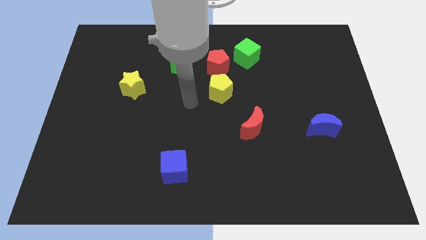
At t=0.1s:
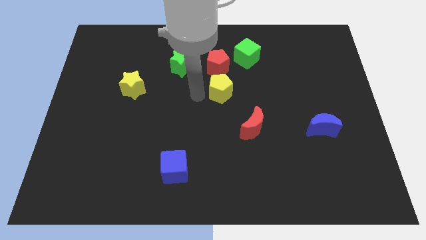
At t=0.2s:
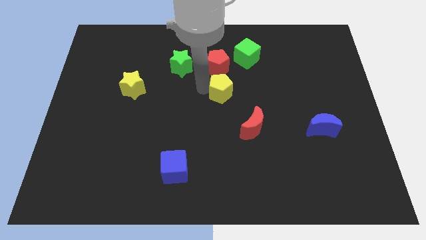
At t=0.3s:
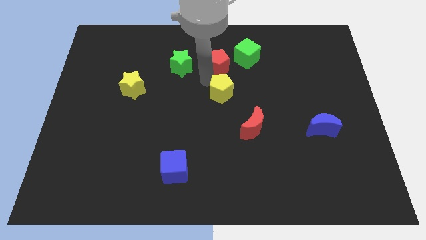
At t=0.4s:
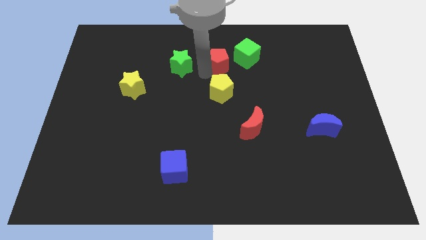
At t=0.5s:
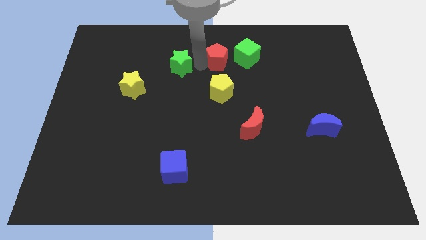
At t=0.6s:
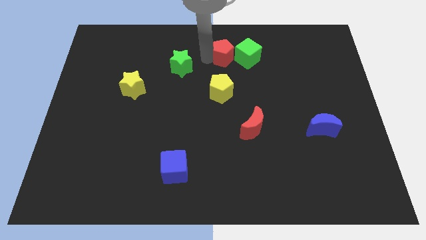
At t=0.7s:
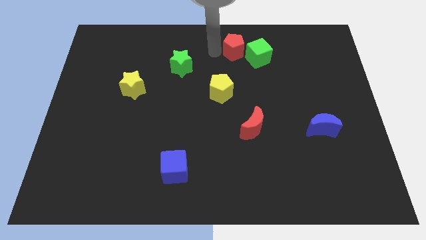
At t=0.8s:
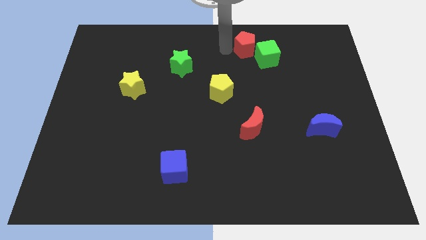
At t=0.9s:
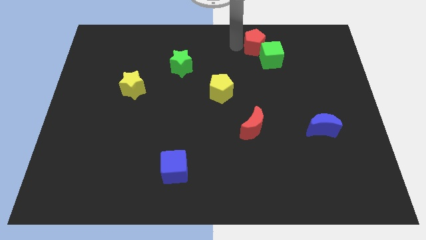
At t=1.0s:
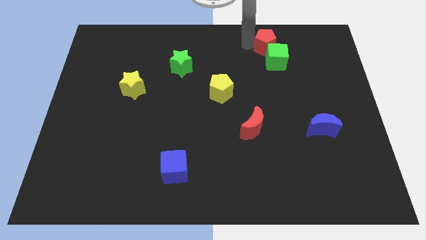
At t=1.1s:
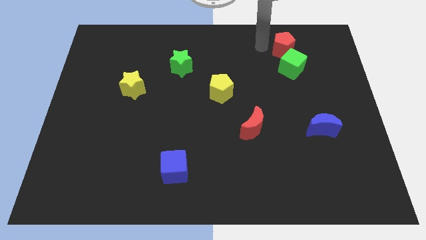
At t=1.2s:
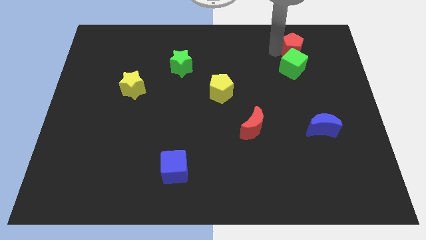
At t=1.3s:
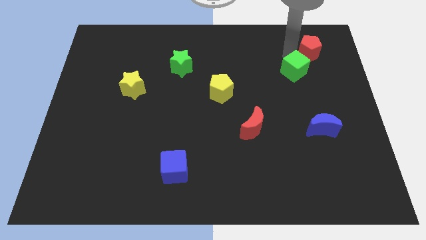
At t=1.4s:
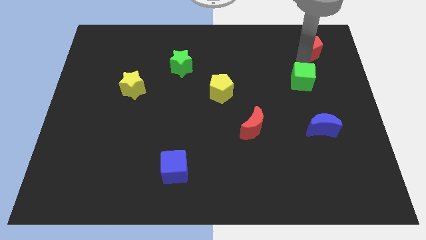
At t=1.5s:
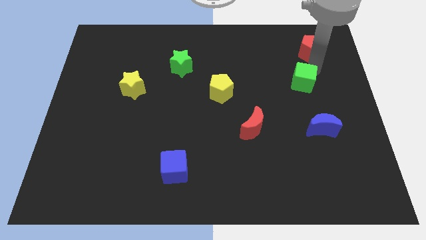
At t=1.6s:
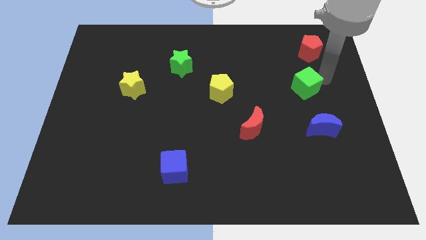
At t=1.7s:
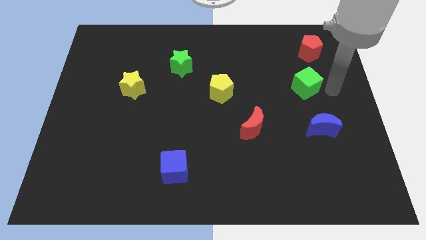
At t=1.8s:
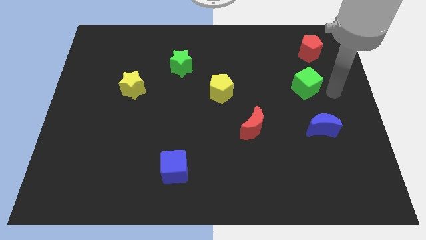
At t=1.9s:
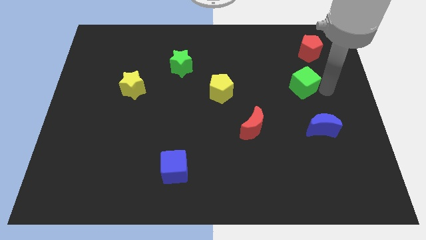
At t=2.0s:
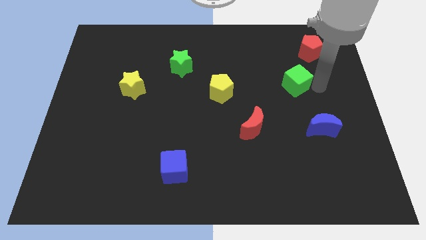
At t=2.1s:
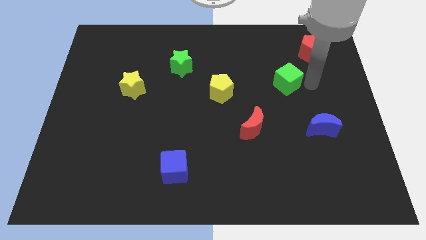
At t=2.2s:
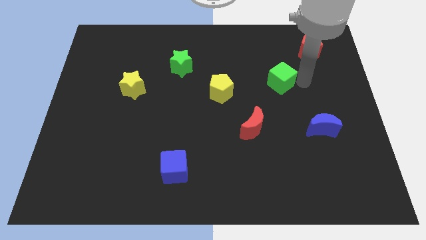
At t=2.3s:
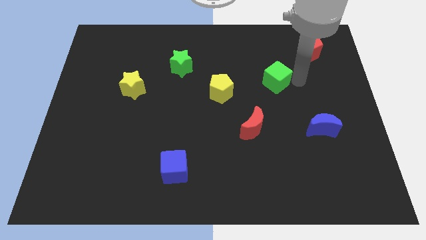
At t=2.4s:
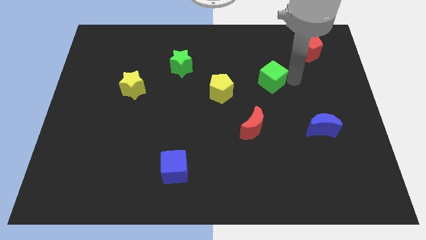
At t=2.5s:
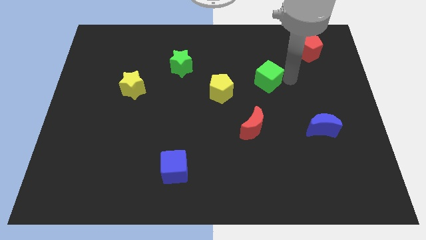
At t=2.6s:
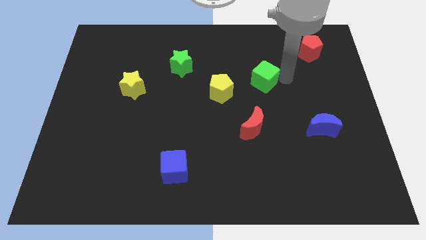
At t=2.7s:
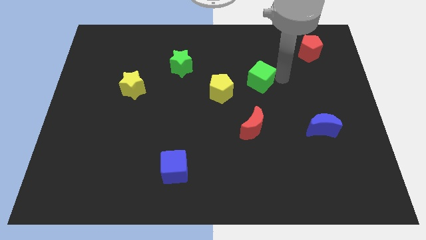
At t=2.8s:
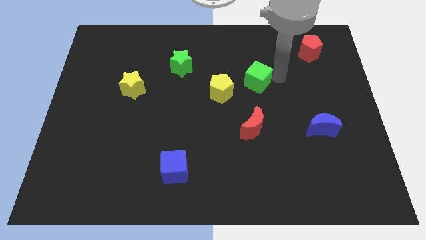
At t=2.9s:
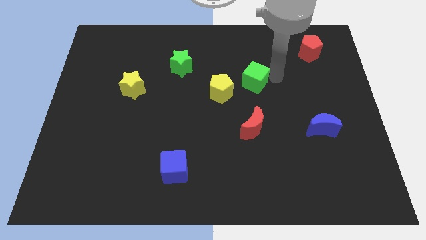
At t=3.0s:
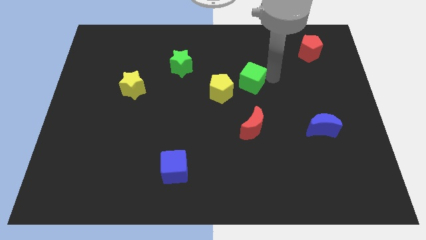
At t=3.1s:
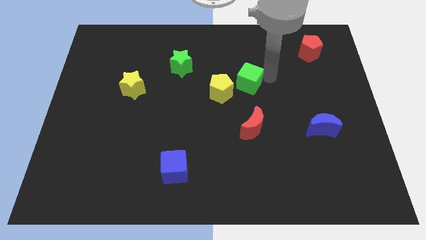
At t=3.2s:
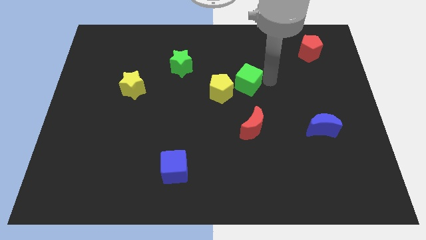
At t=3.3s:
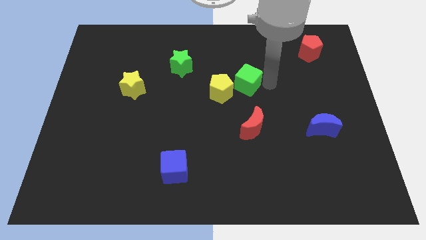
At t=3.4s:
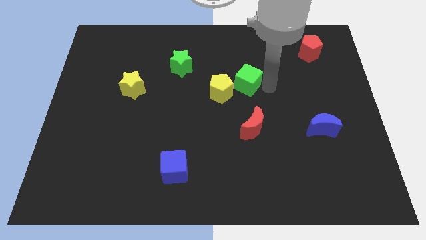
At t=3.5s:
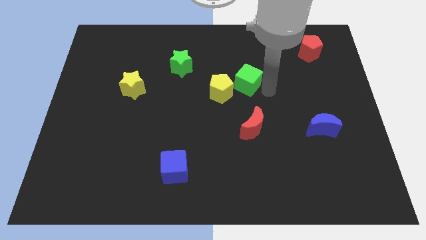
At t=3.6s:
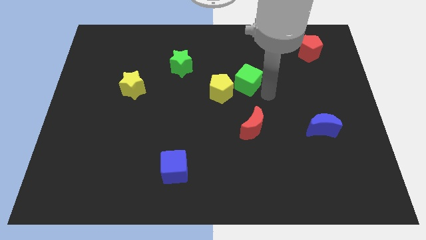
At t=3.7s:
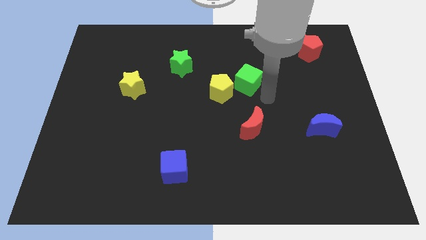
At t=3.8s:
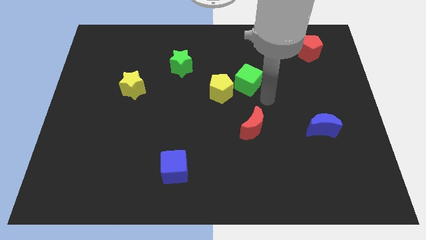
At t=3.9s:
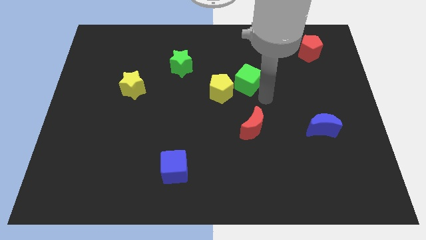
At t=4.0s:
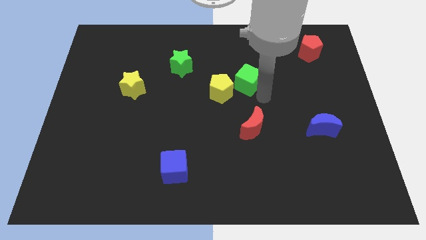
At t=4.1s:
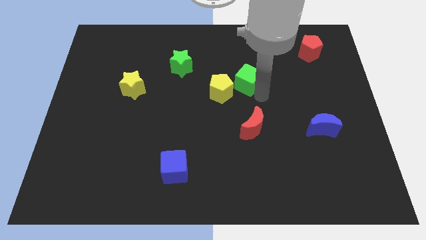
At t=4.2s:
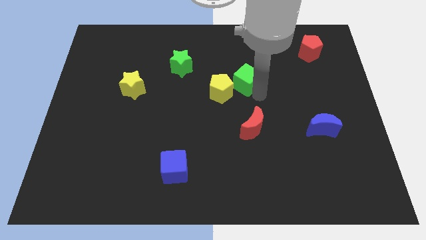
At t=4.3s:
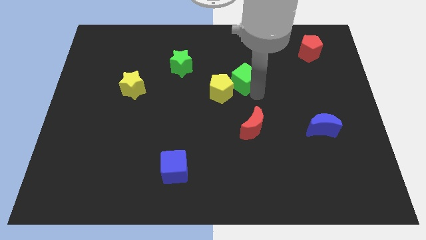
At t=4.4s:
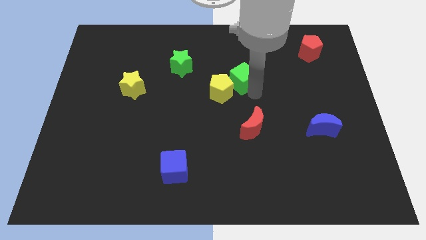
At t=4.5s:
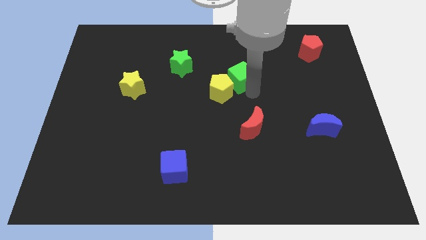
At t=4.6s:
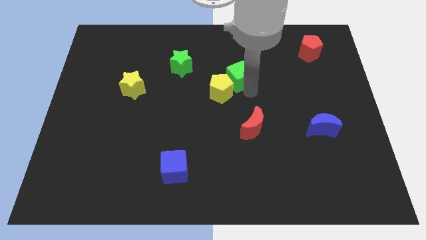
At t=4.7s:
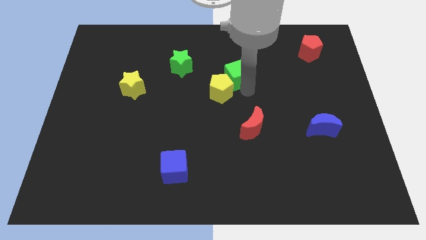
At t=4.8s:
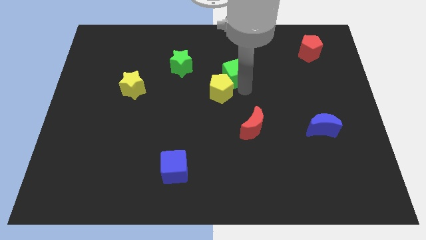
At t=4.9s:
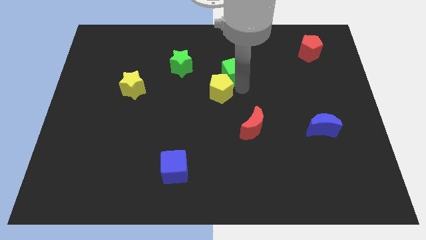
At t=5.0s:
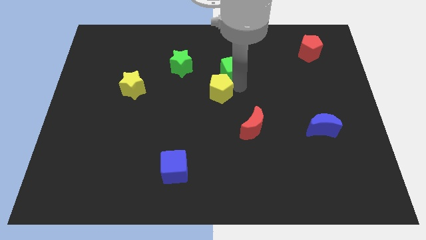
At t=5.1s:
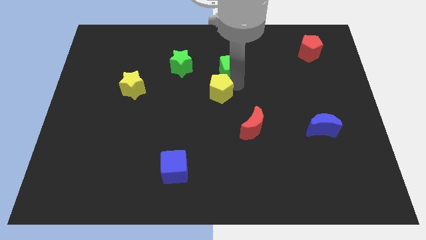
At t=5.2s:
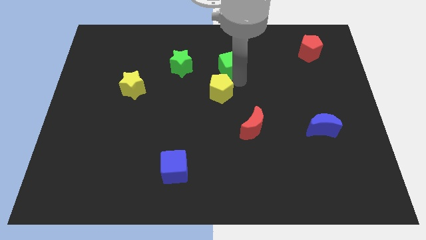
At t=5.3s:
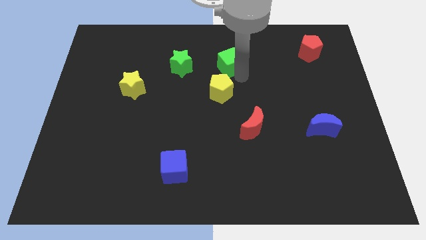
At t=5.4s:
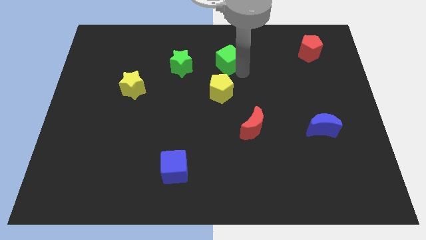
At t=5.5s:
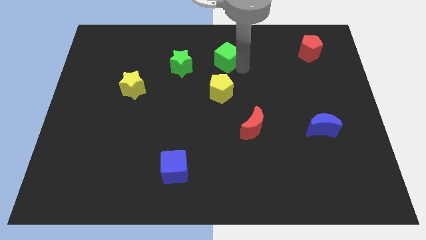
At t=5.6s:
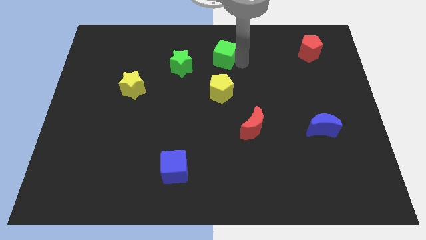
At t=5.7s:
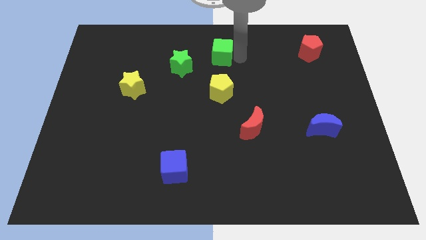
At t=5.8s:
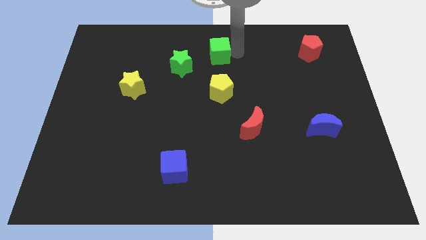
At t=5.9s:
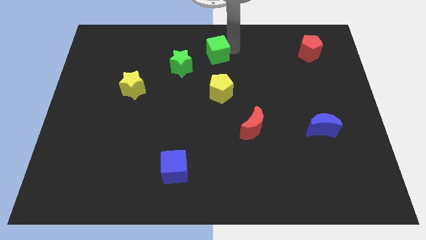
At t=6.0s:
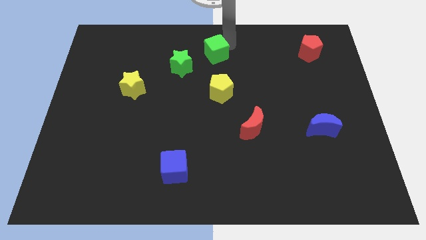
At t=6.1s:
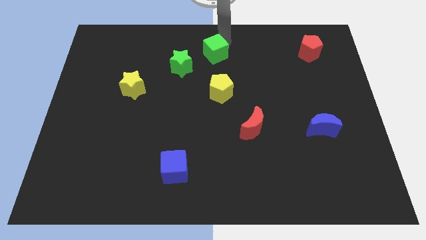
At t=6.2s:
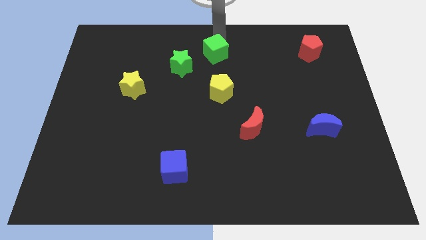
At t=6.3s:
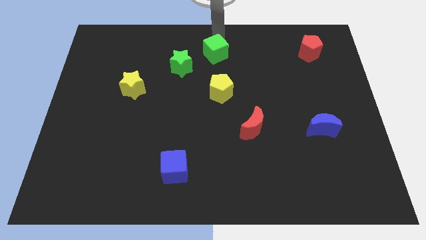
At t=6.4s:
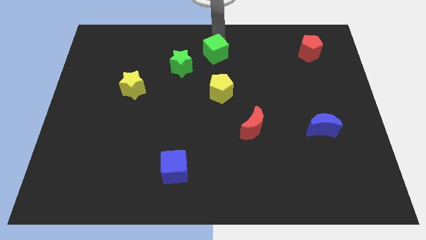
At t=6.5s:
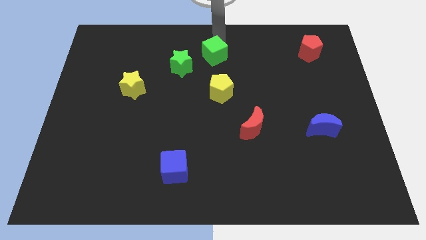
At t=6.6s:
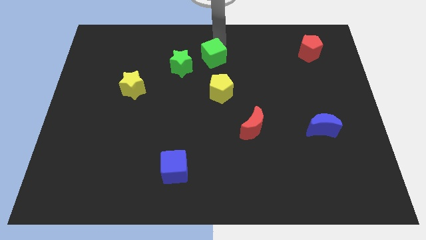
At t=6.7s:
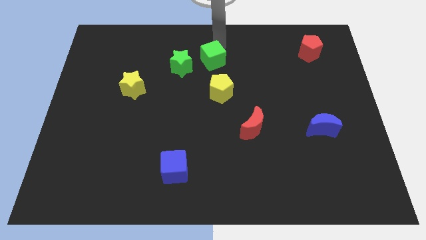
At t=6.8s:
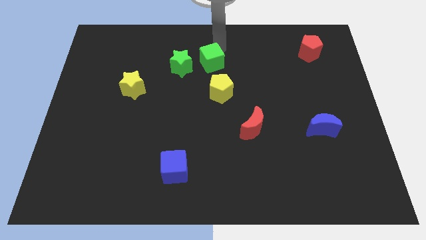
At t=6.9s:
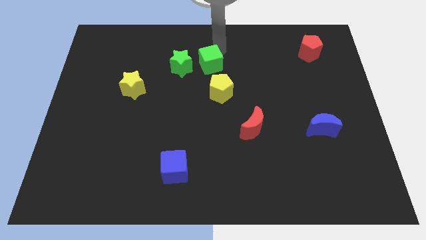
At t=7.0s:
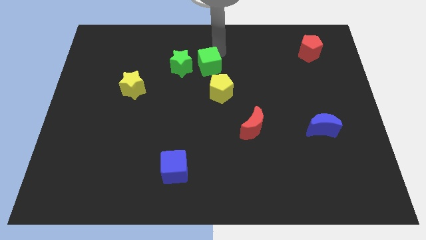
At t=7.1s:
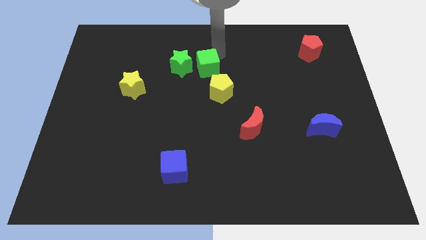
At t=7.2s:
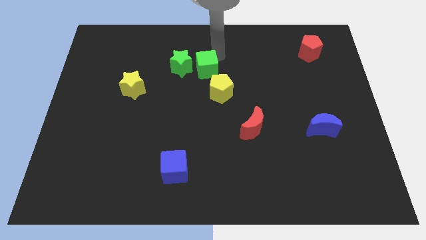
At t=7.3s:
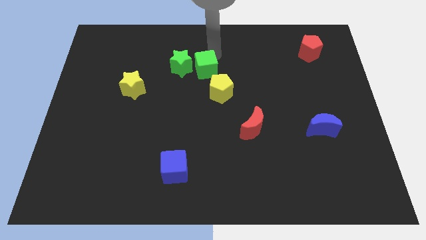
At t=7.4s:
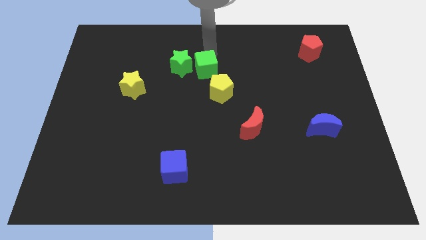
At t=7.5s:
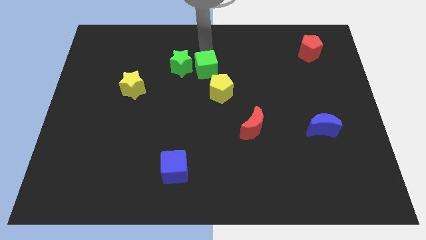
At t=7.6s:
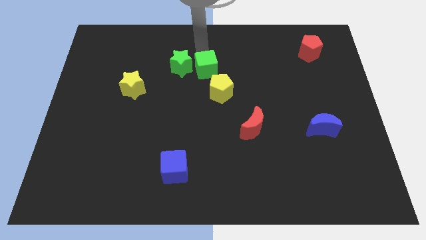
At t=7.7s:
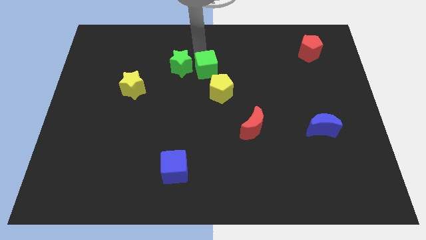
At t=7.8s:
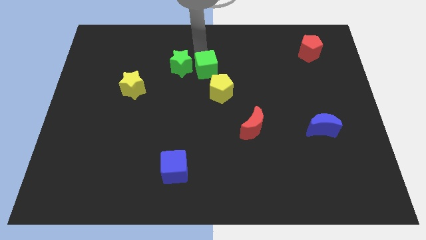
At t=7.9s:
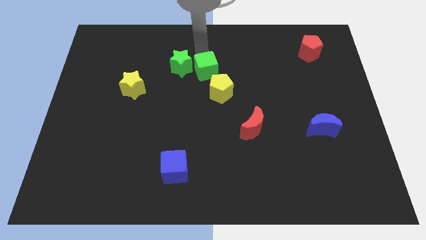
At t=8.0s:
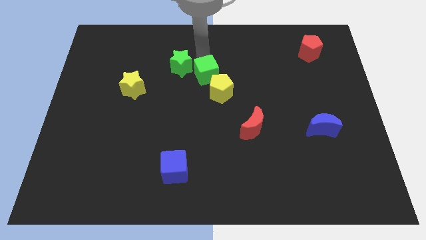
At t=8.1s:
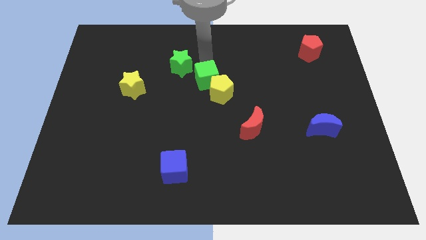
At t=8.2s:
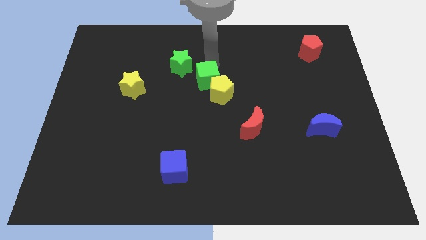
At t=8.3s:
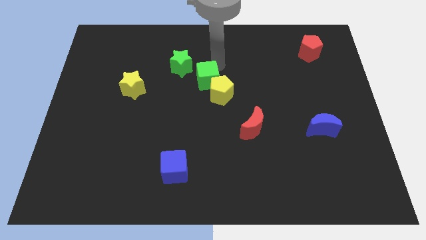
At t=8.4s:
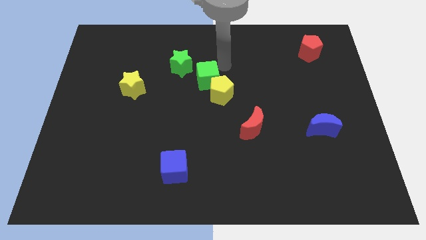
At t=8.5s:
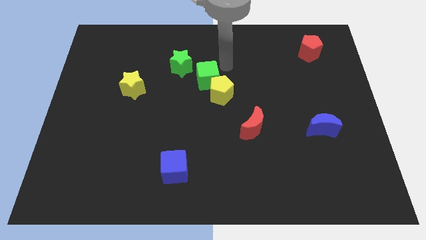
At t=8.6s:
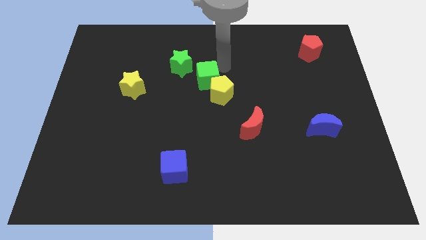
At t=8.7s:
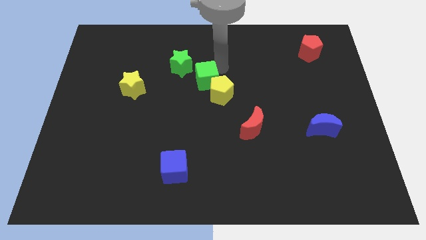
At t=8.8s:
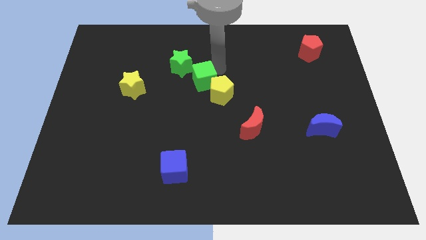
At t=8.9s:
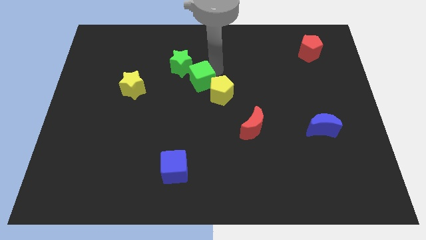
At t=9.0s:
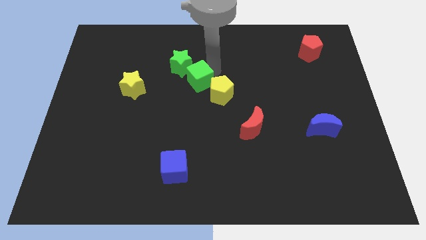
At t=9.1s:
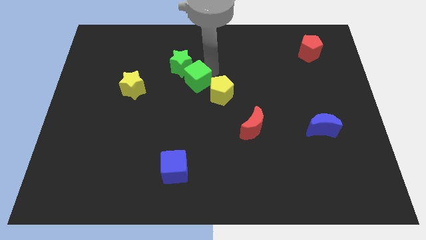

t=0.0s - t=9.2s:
move the green cube below the green star
